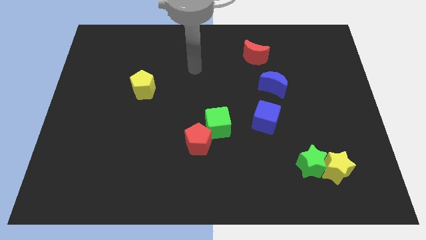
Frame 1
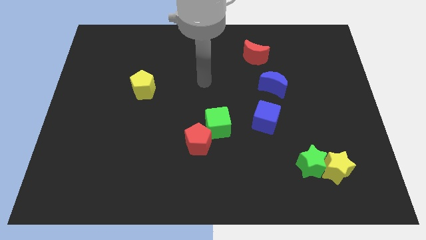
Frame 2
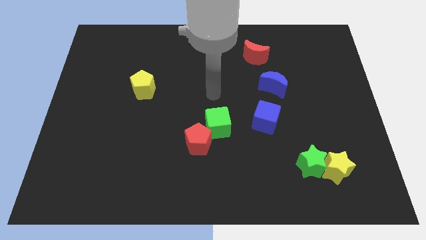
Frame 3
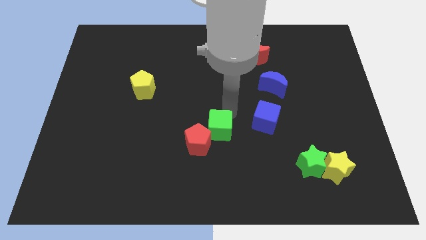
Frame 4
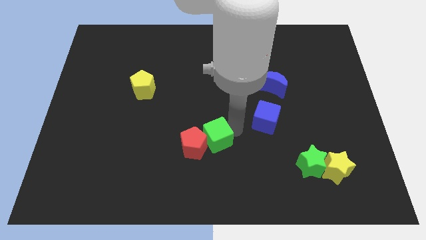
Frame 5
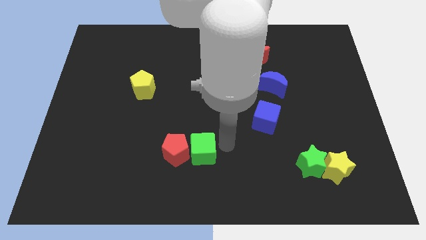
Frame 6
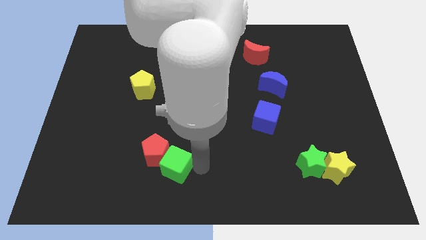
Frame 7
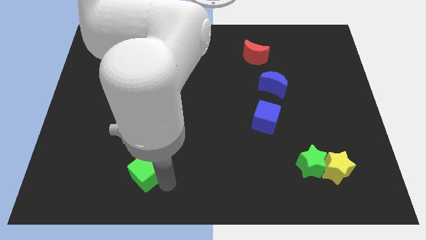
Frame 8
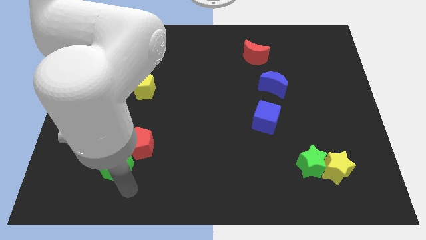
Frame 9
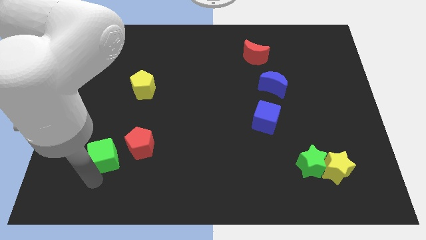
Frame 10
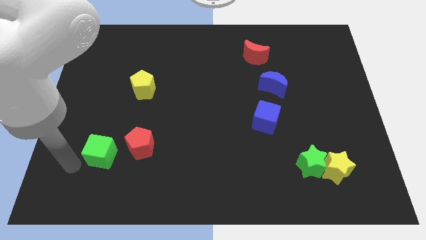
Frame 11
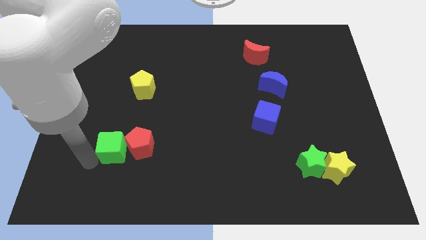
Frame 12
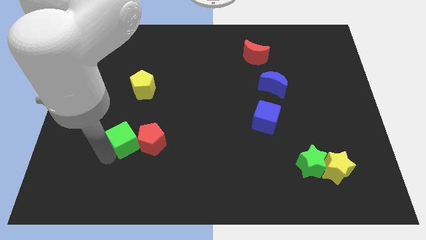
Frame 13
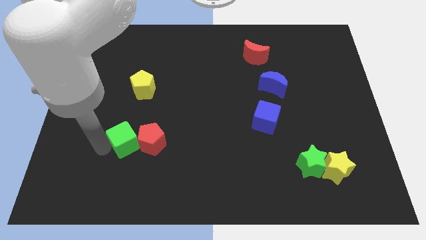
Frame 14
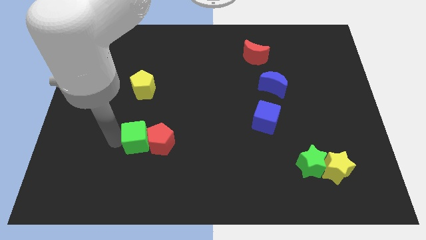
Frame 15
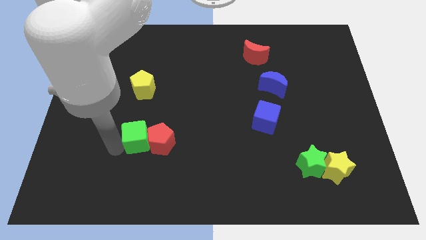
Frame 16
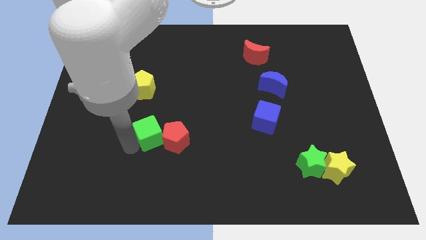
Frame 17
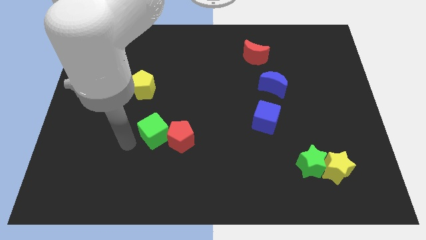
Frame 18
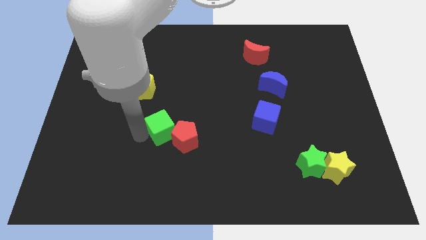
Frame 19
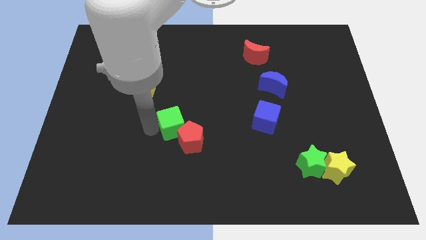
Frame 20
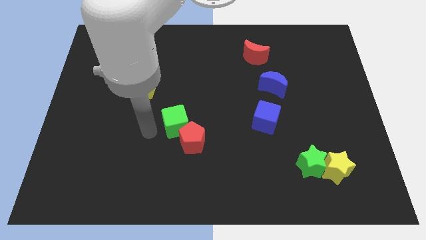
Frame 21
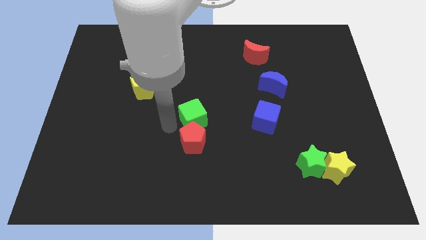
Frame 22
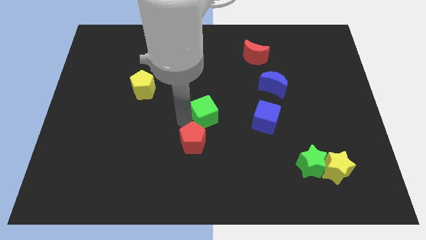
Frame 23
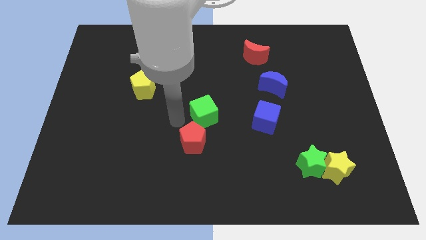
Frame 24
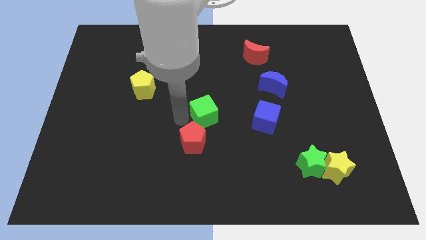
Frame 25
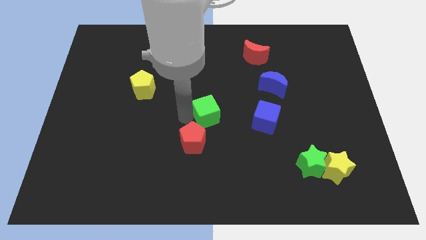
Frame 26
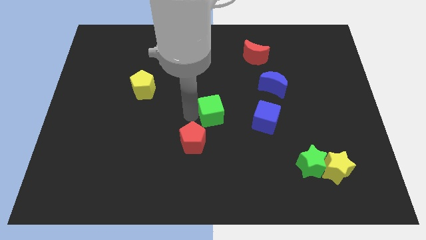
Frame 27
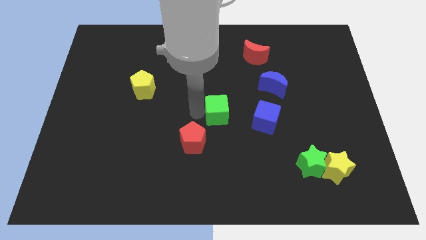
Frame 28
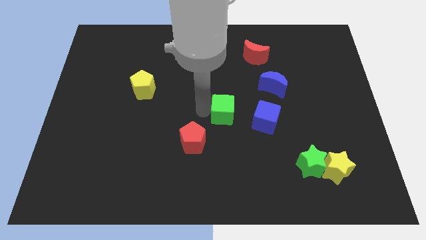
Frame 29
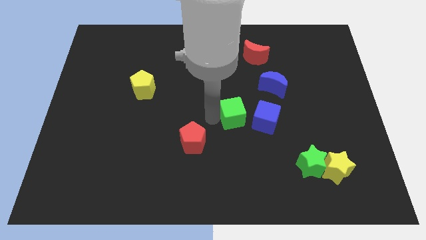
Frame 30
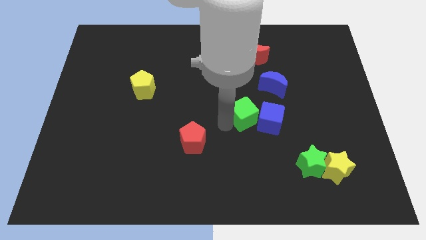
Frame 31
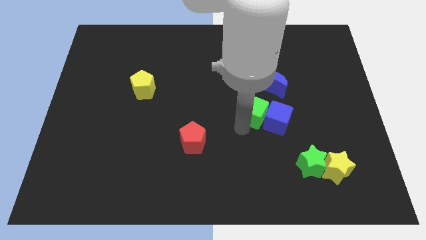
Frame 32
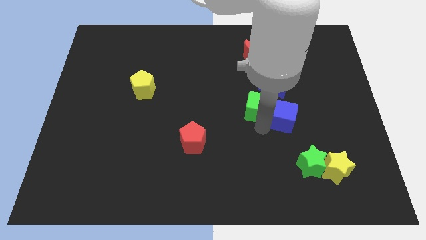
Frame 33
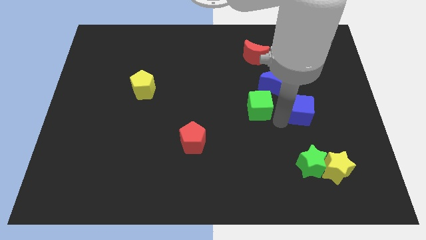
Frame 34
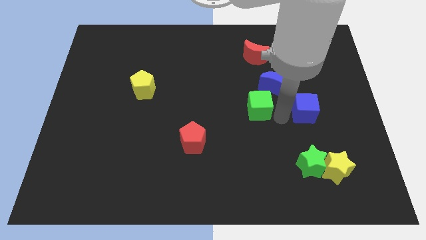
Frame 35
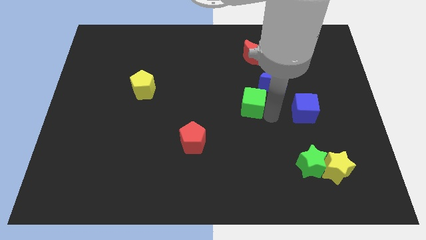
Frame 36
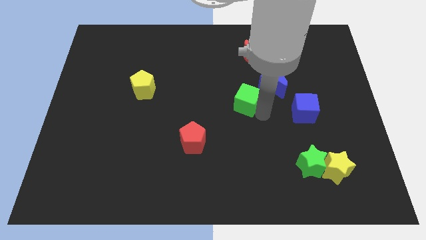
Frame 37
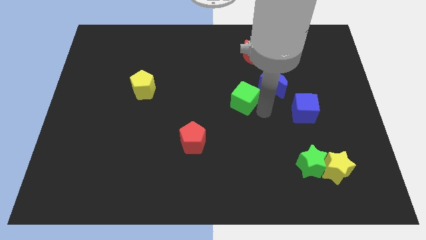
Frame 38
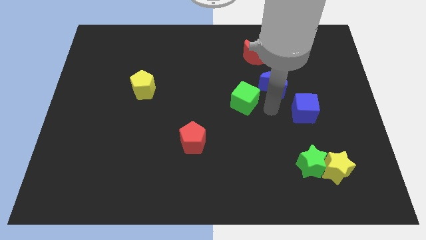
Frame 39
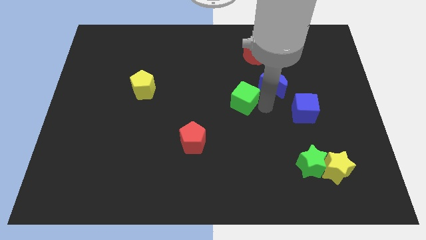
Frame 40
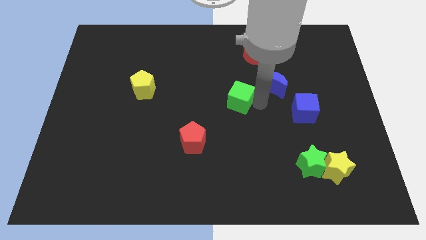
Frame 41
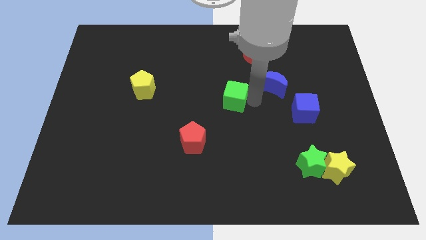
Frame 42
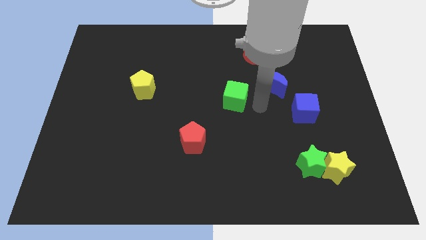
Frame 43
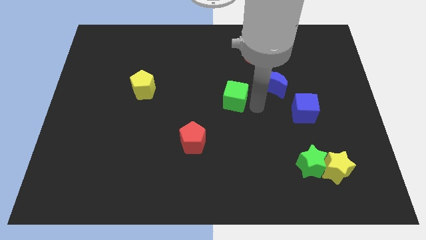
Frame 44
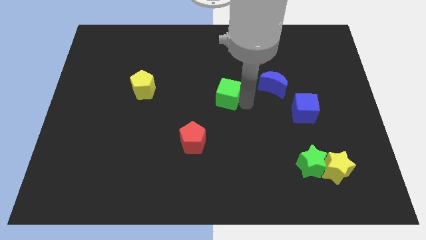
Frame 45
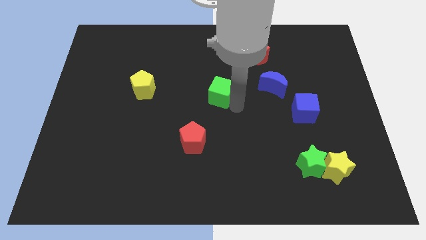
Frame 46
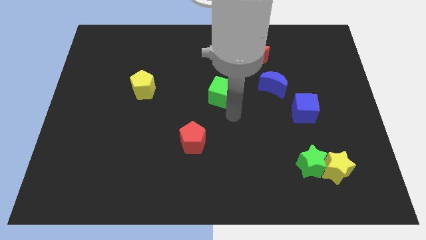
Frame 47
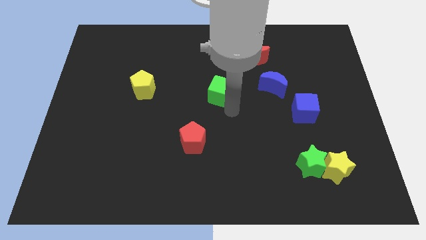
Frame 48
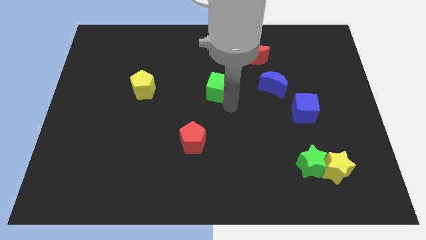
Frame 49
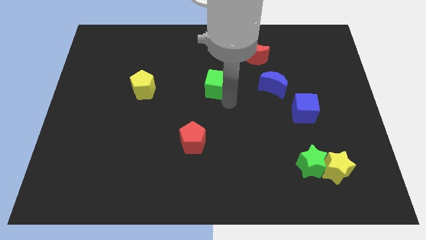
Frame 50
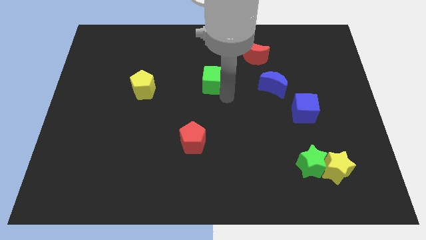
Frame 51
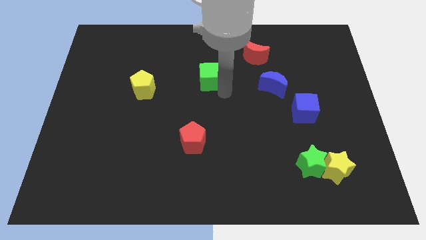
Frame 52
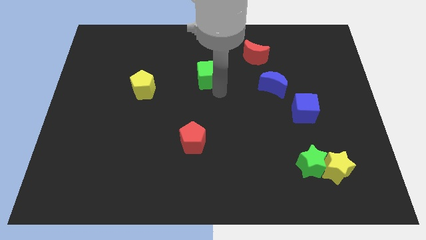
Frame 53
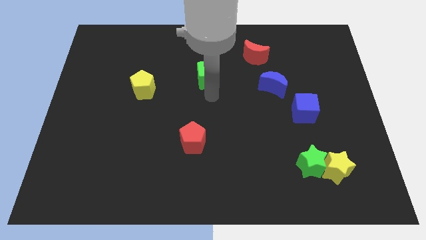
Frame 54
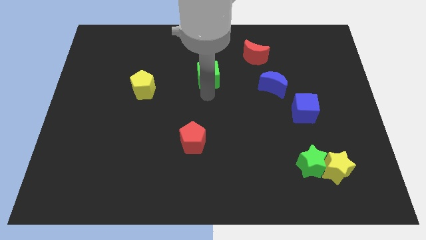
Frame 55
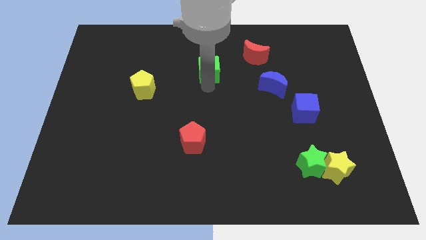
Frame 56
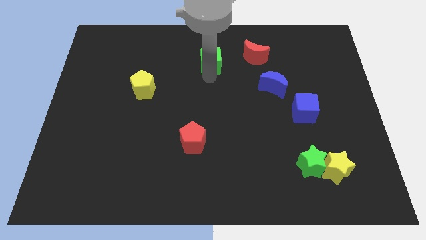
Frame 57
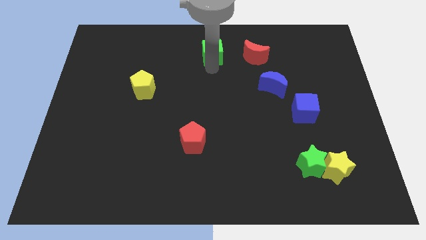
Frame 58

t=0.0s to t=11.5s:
move the green cube to the towards your base

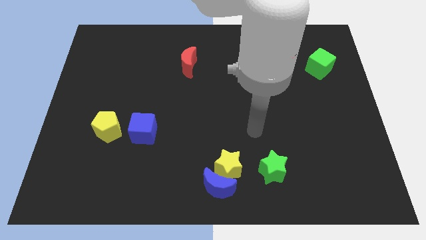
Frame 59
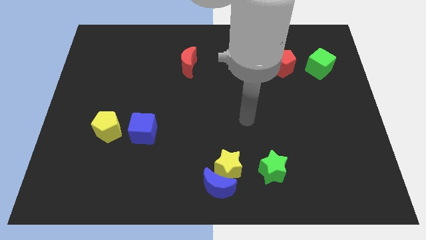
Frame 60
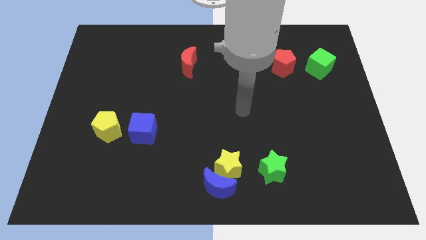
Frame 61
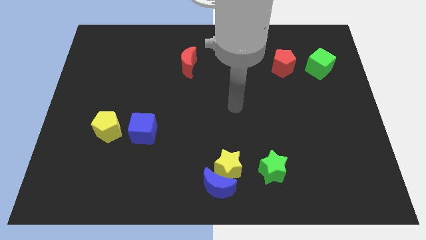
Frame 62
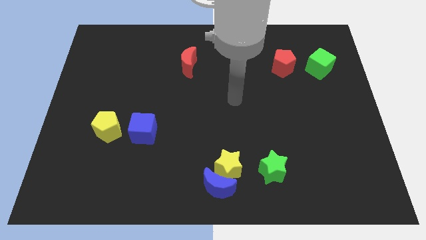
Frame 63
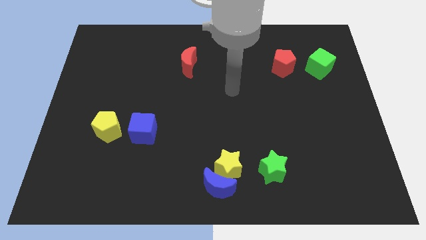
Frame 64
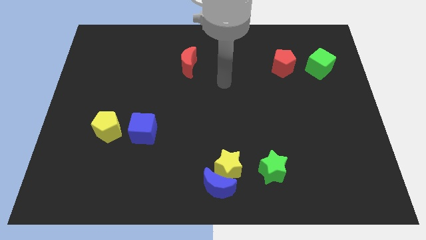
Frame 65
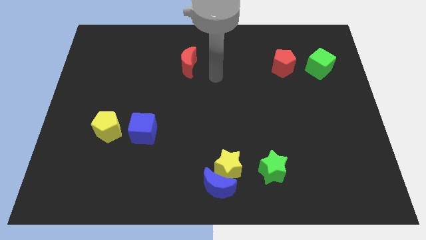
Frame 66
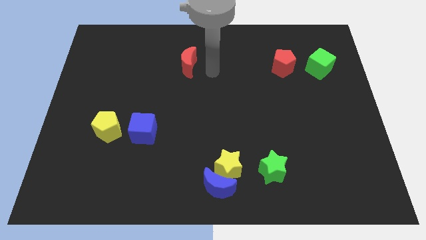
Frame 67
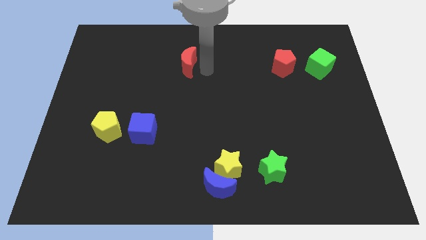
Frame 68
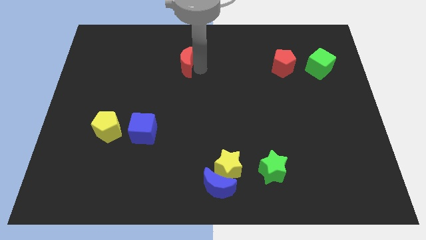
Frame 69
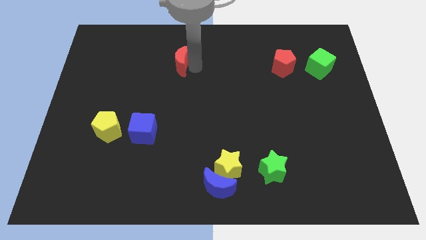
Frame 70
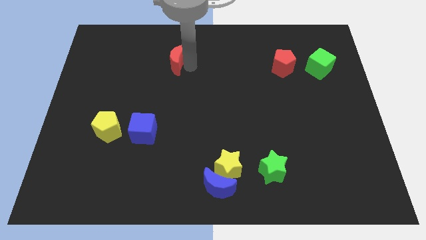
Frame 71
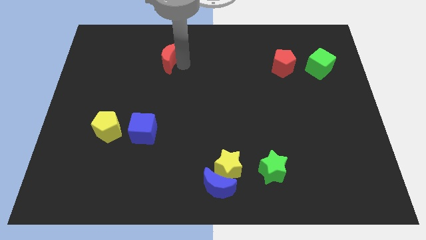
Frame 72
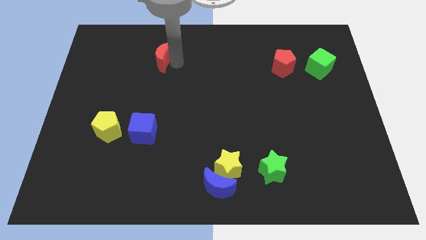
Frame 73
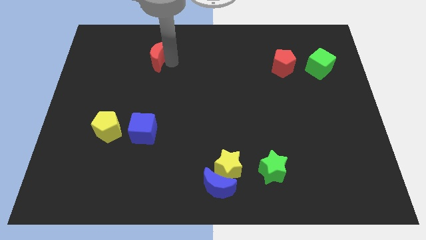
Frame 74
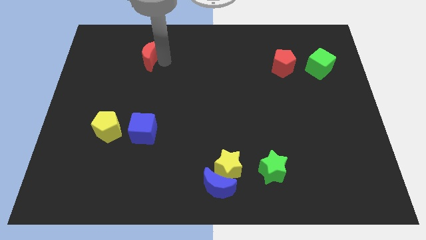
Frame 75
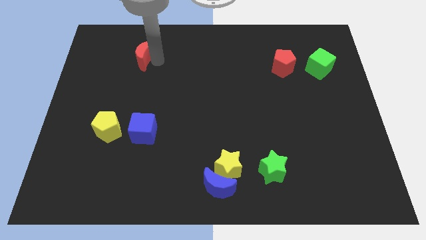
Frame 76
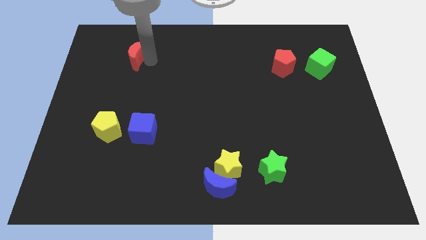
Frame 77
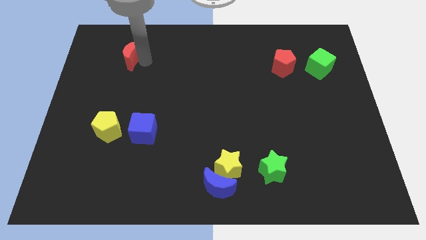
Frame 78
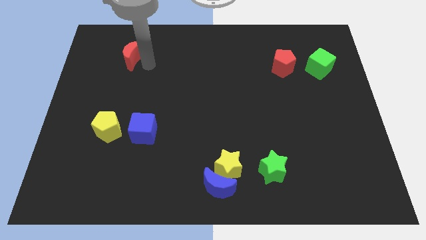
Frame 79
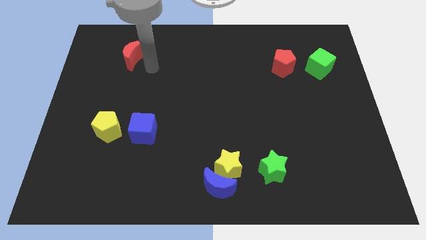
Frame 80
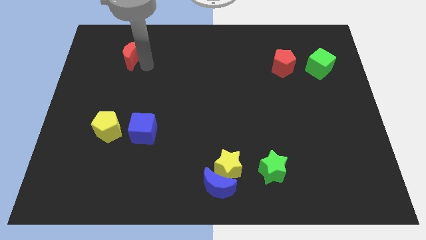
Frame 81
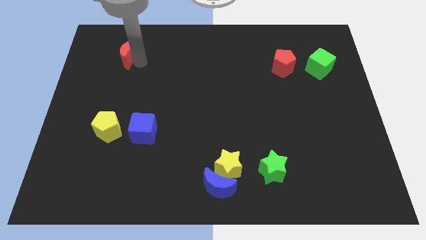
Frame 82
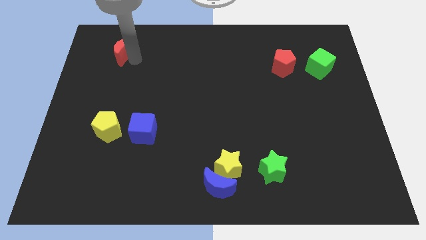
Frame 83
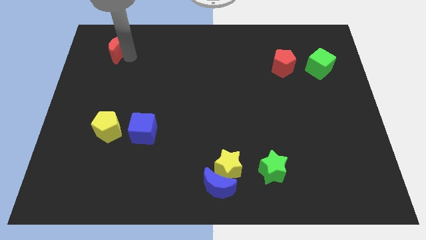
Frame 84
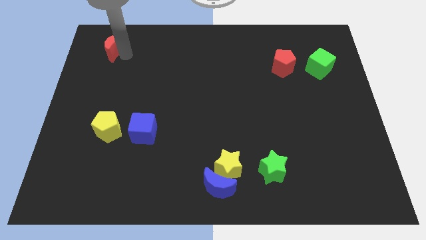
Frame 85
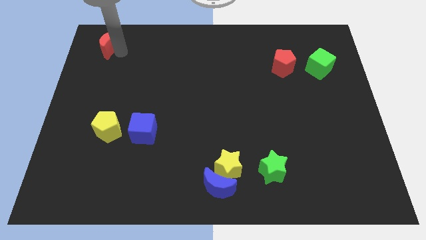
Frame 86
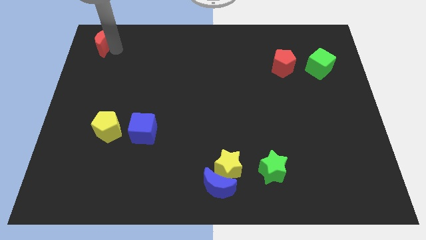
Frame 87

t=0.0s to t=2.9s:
push the red moon to the upper left corner
